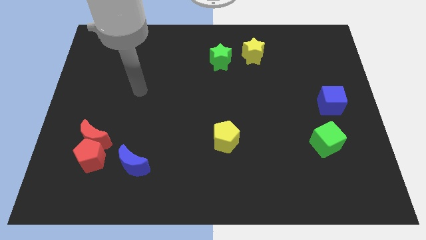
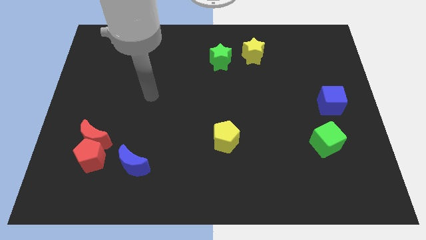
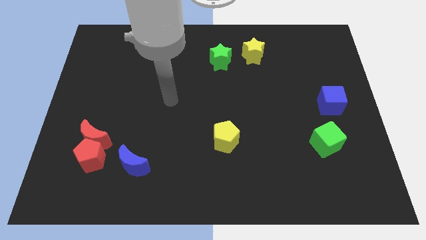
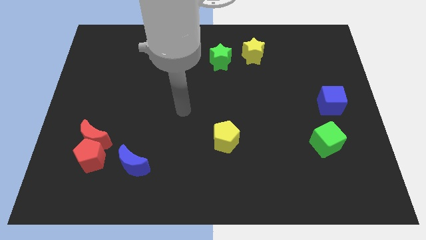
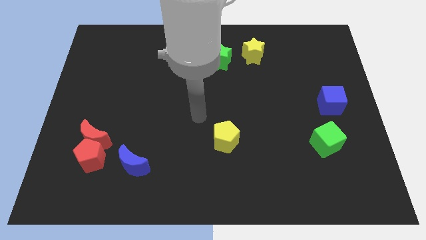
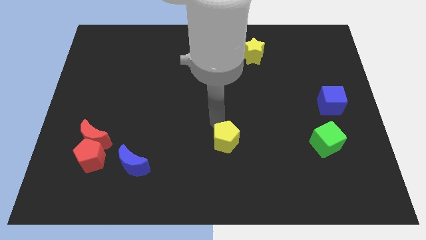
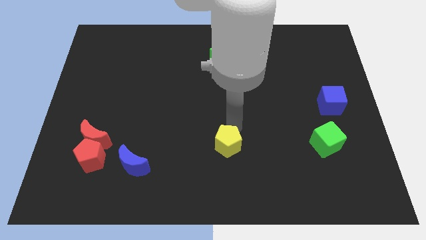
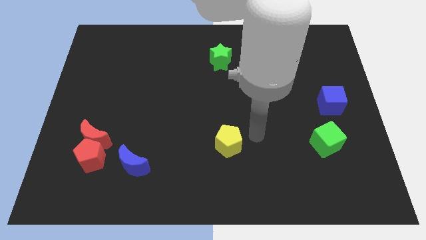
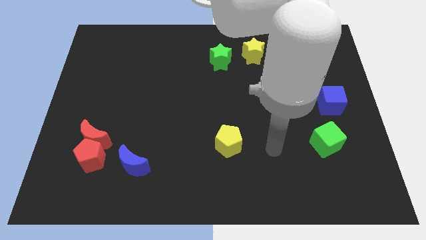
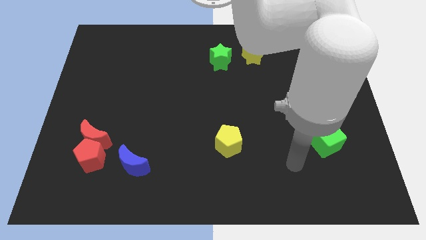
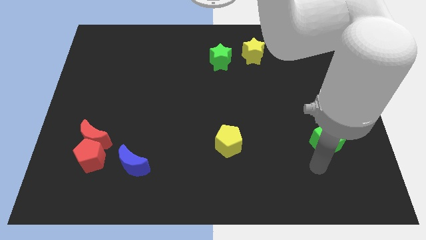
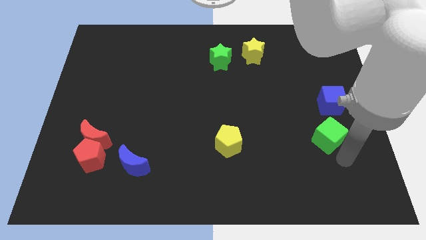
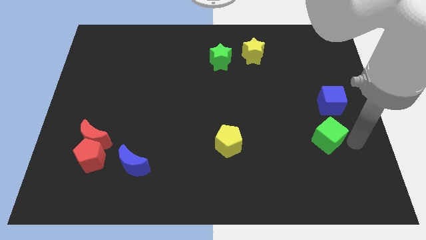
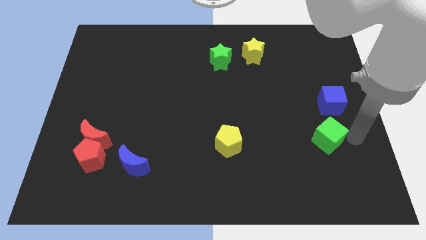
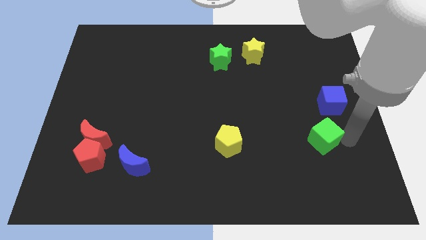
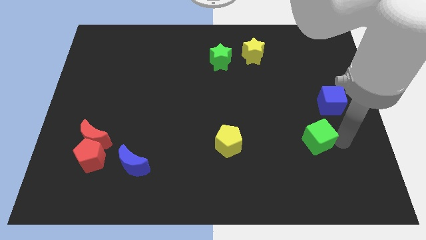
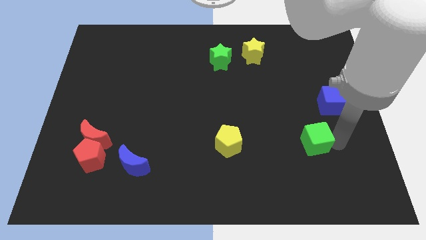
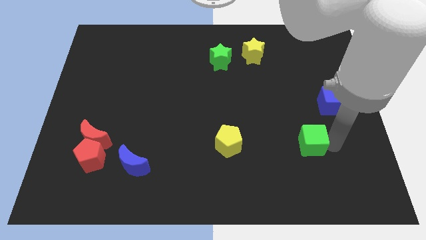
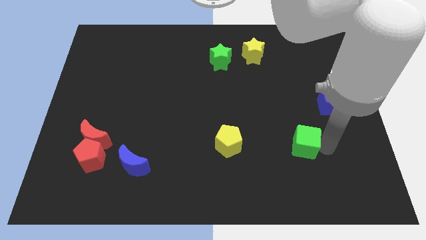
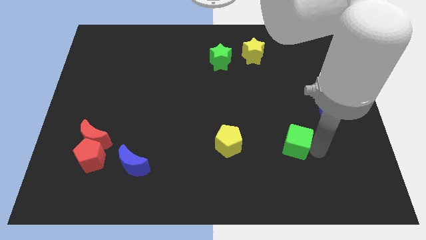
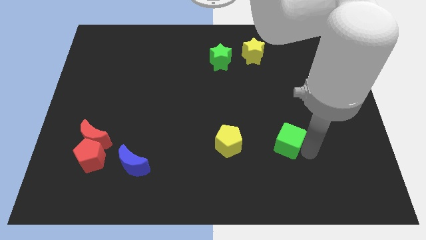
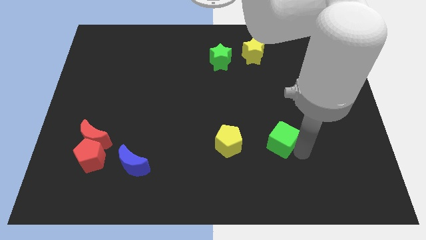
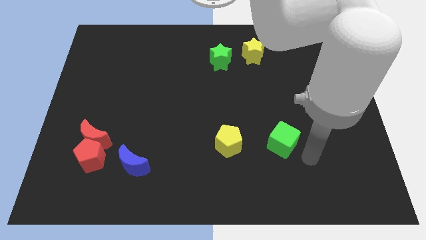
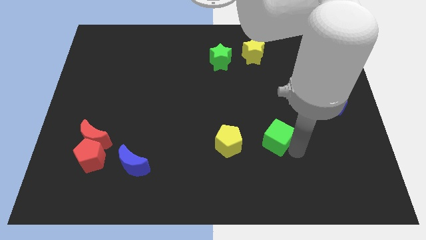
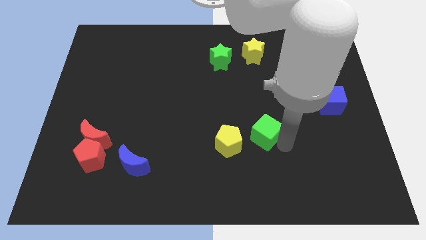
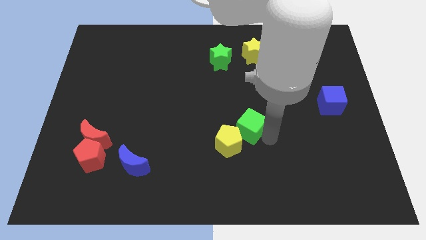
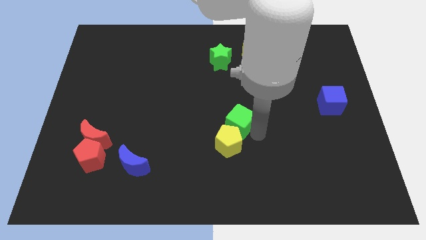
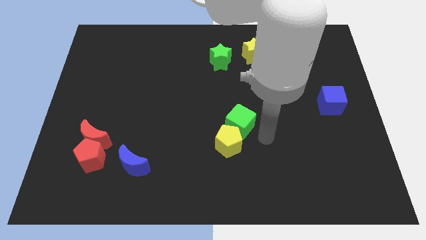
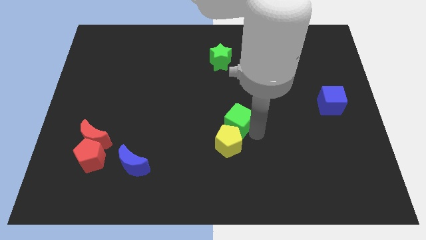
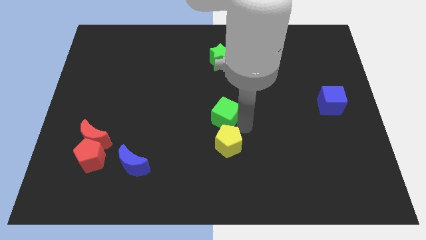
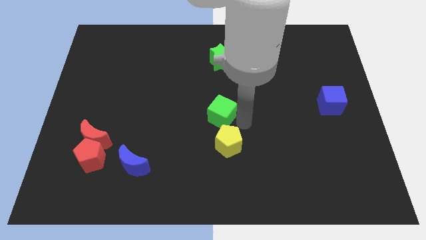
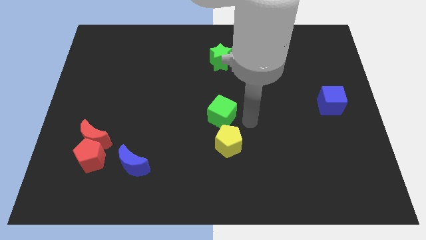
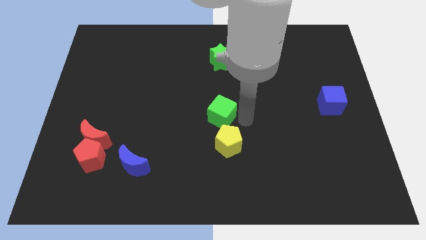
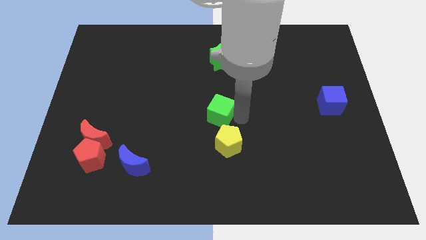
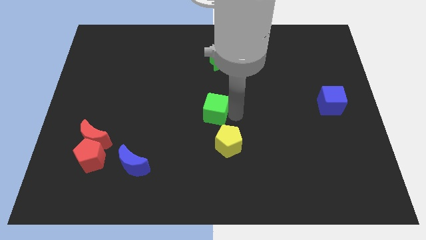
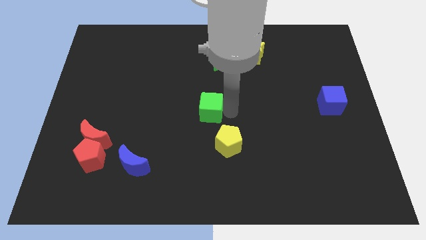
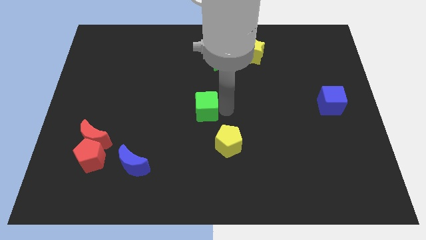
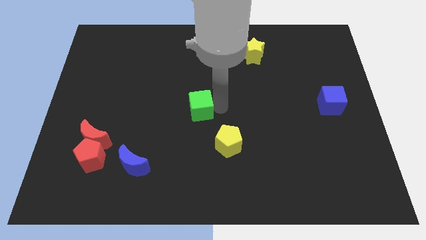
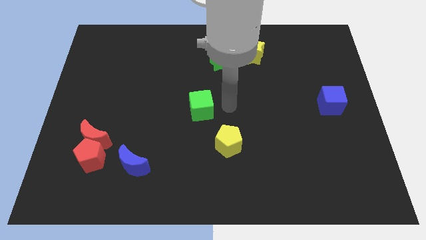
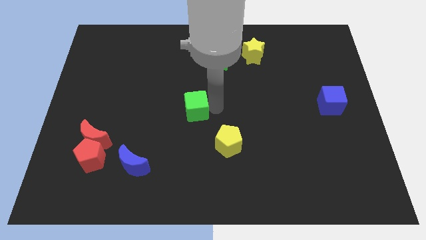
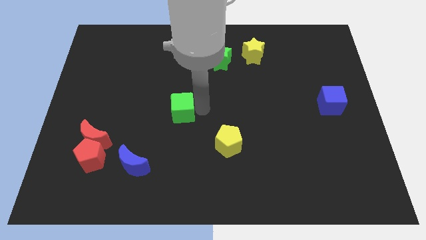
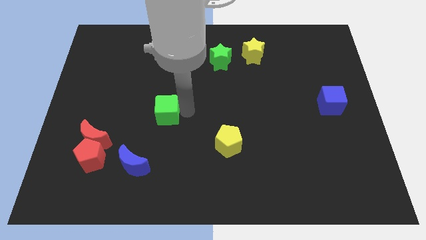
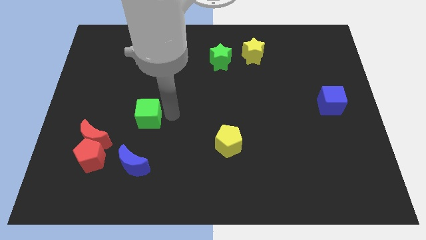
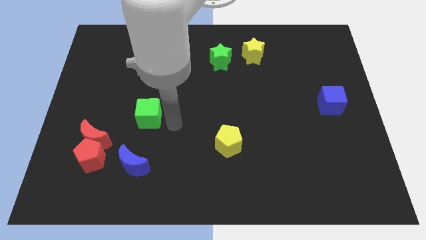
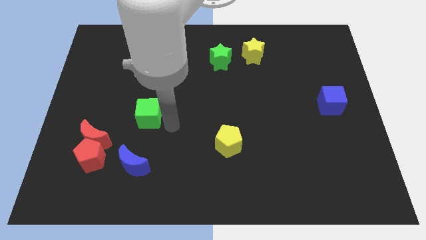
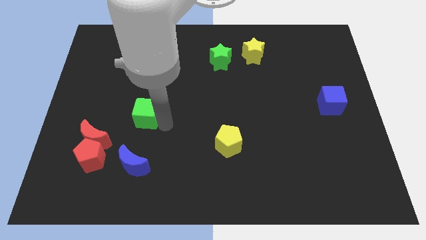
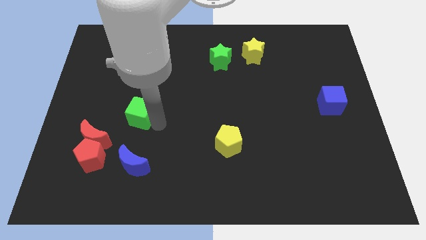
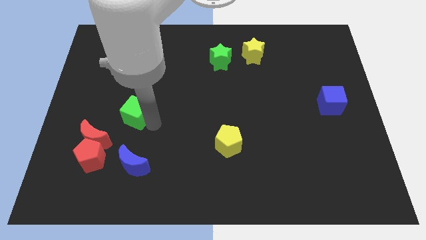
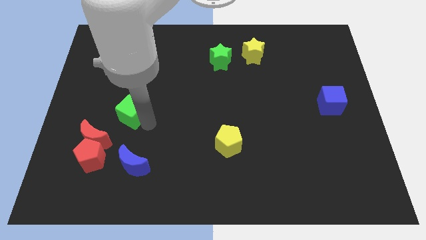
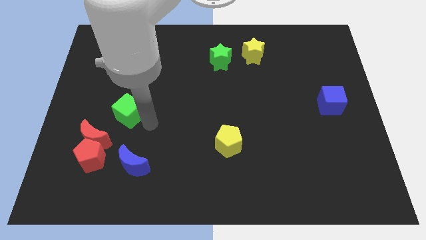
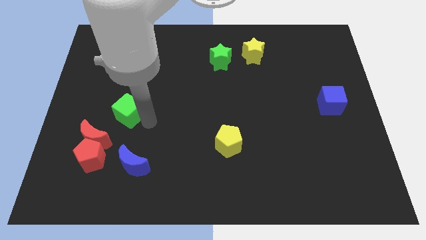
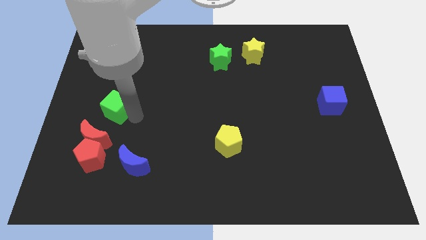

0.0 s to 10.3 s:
move the green cube to the top side of the red moon

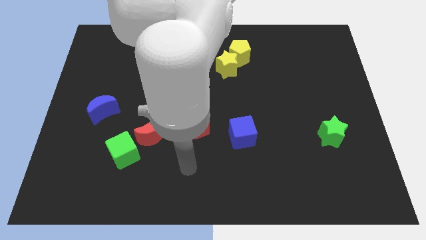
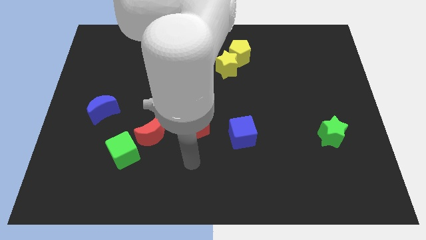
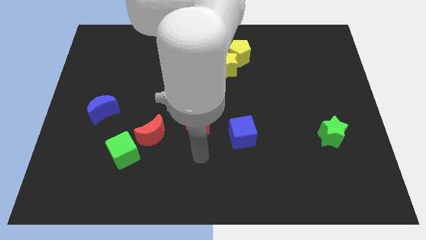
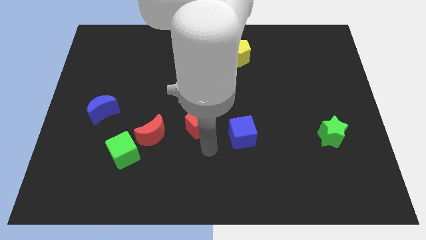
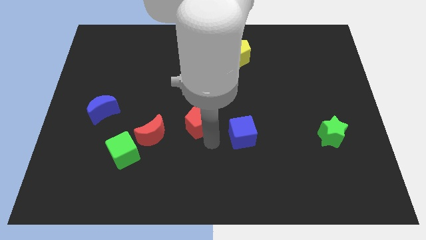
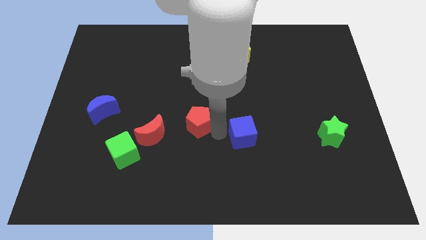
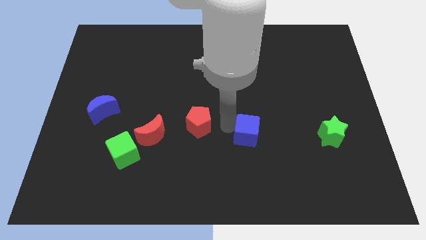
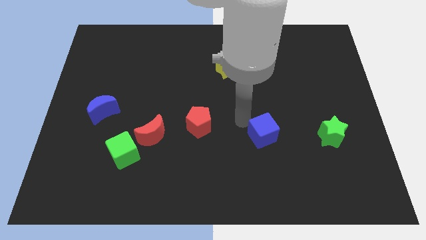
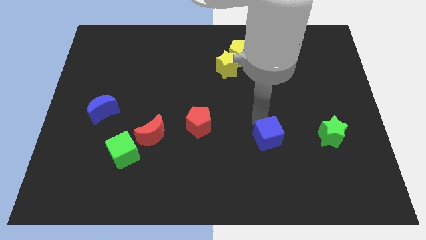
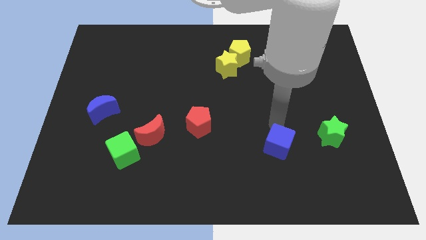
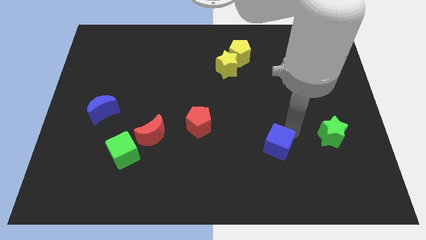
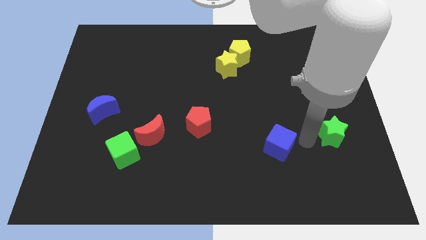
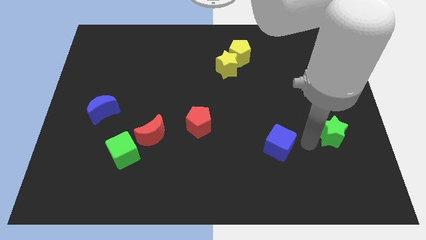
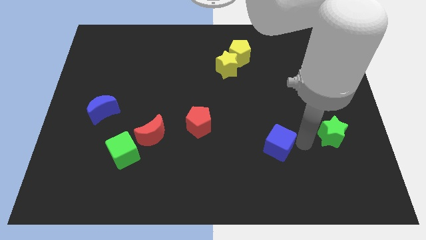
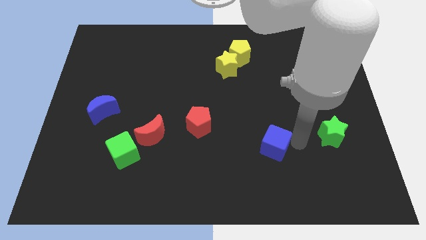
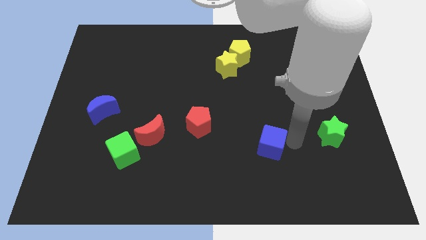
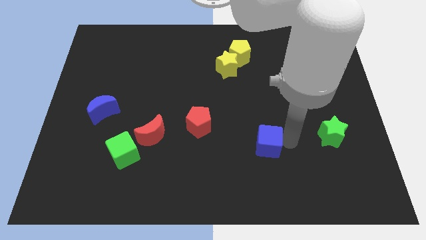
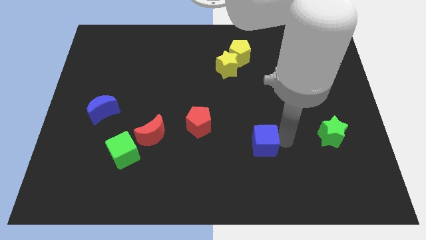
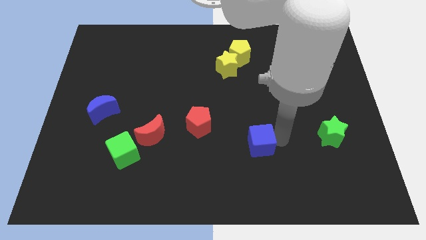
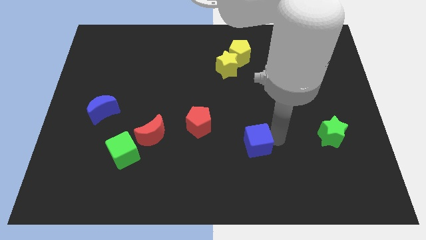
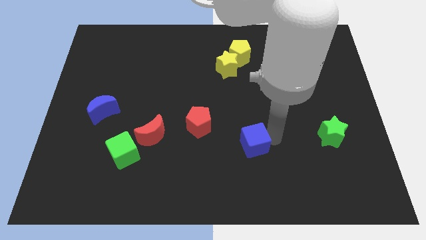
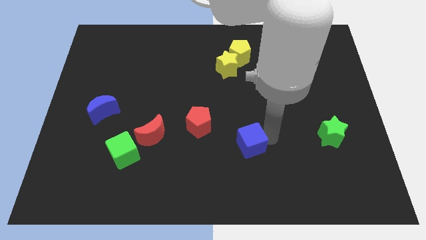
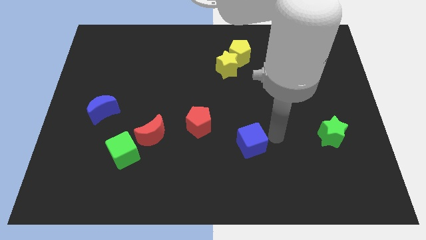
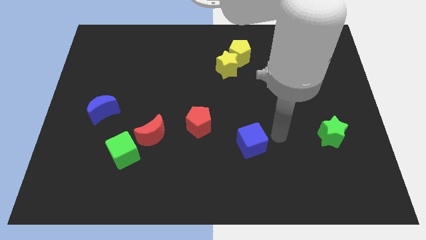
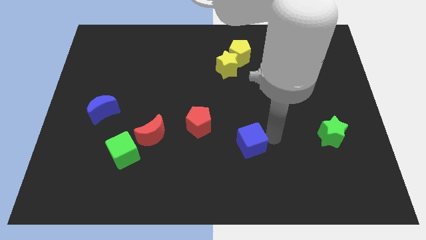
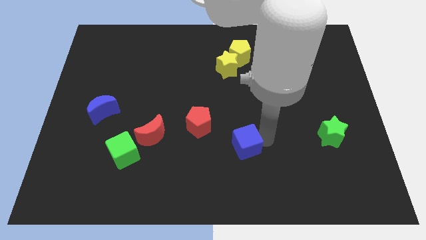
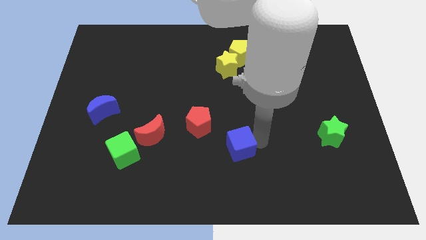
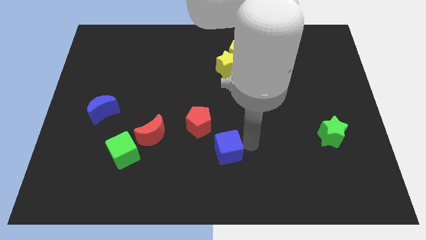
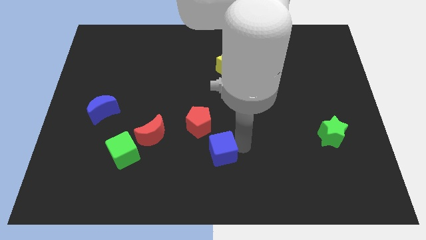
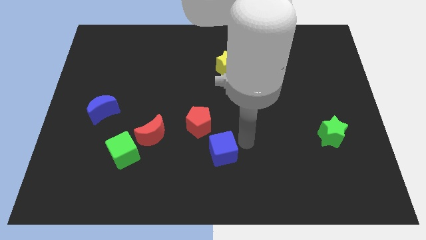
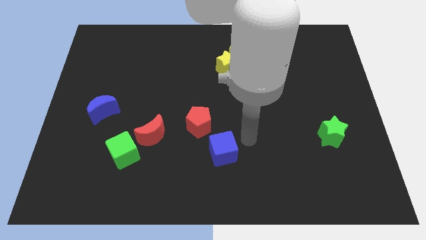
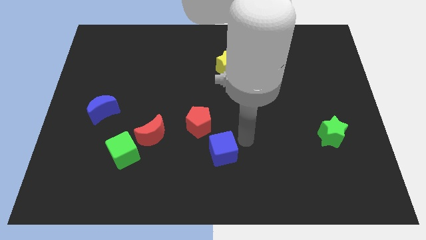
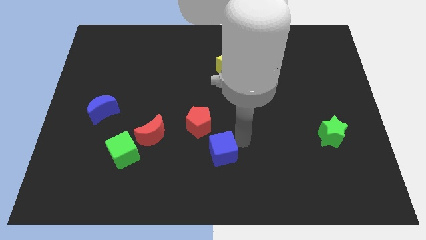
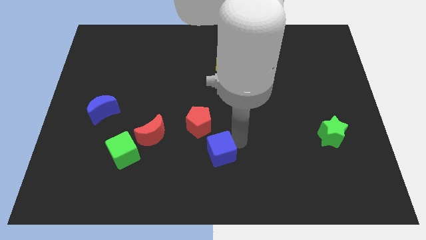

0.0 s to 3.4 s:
put the blue cube below the red pentagon
